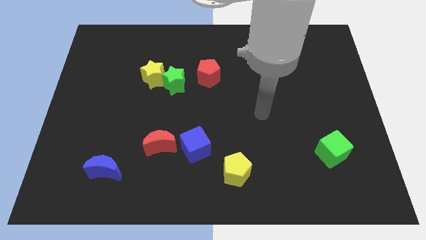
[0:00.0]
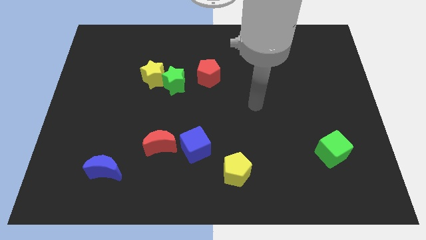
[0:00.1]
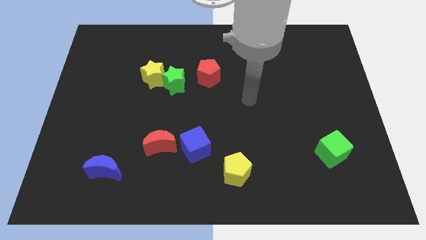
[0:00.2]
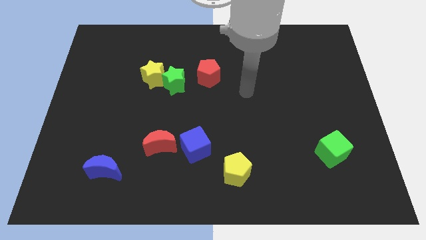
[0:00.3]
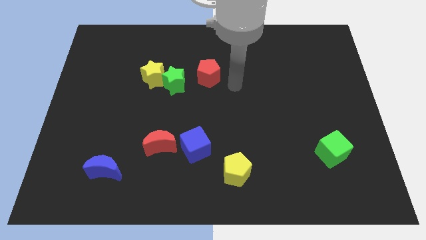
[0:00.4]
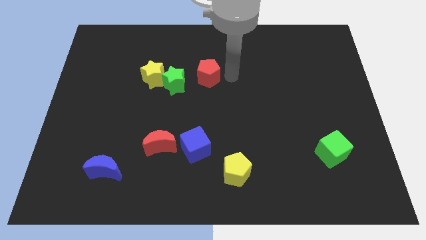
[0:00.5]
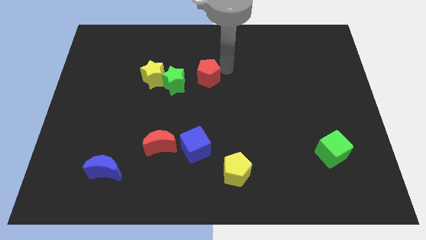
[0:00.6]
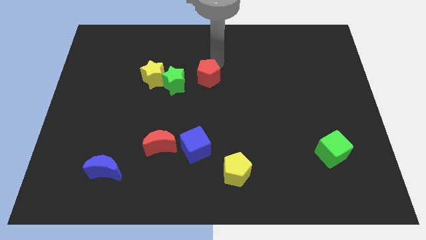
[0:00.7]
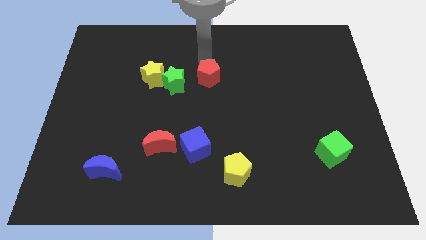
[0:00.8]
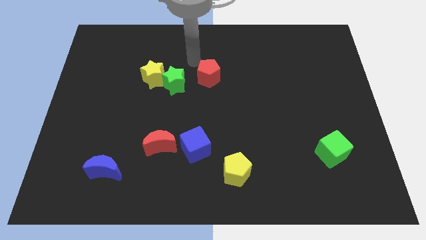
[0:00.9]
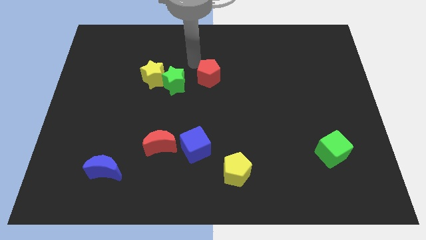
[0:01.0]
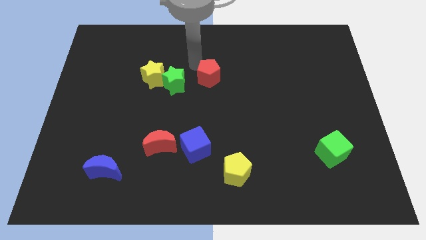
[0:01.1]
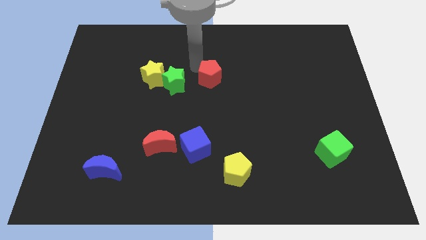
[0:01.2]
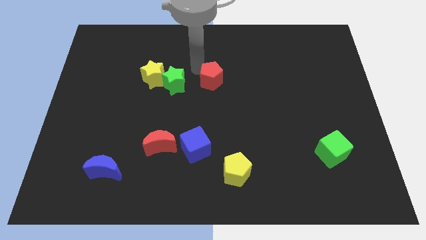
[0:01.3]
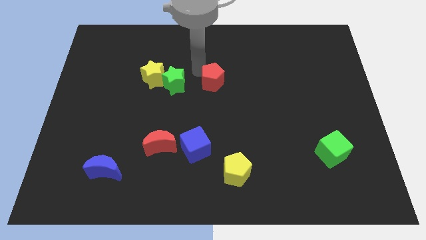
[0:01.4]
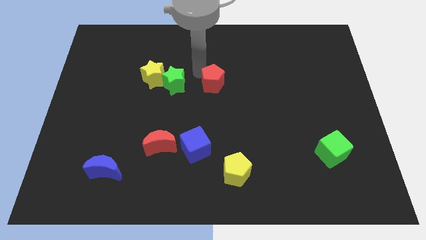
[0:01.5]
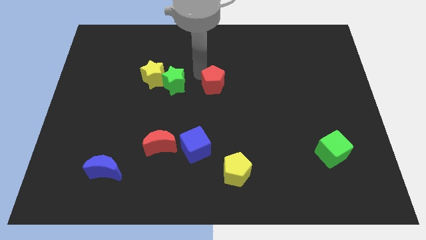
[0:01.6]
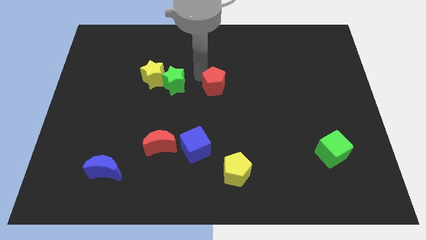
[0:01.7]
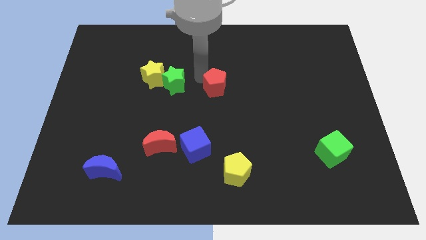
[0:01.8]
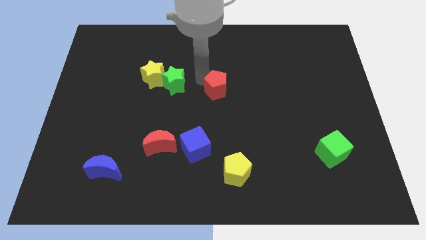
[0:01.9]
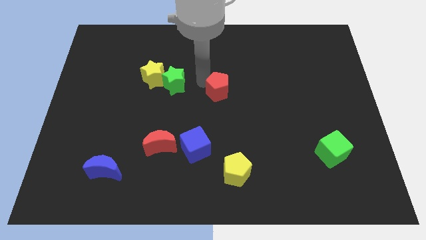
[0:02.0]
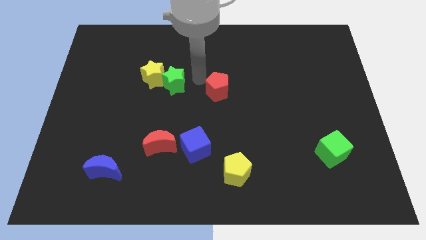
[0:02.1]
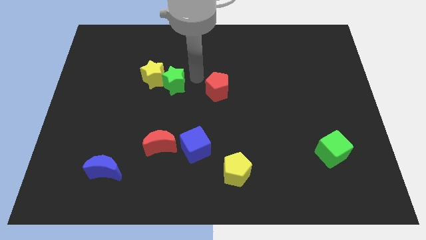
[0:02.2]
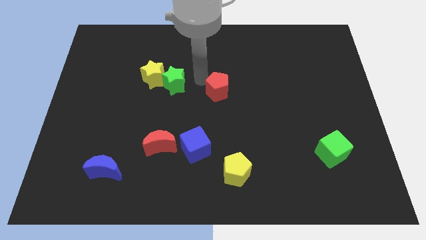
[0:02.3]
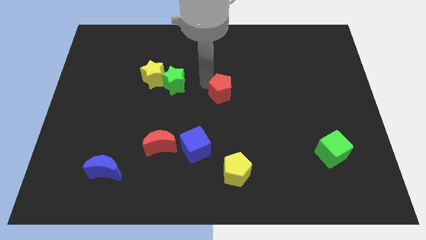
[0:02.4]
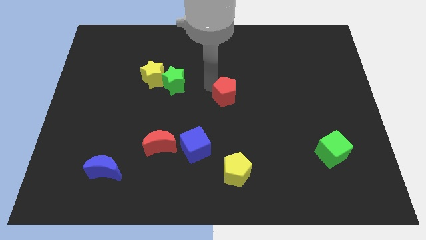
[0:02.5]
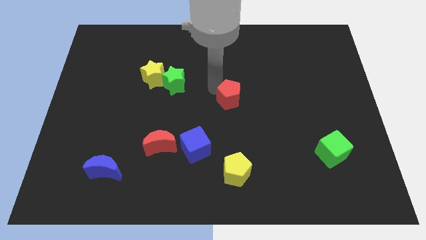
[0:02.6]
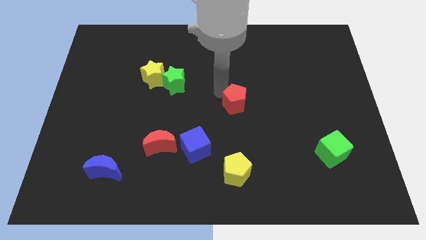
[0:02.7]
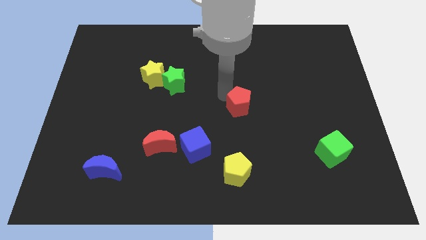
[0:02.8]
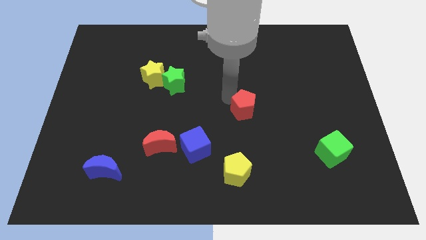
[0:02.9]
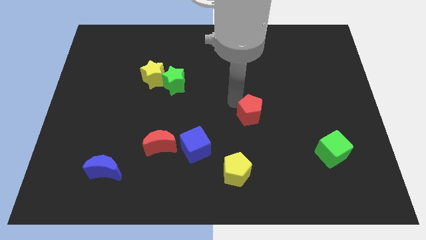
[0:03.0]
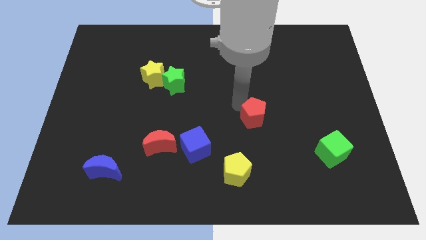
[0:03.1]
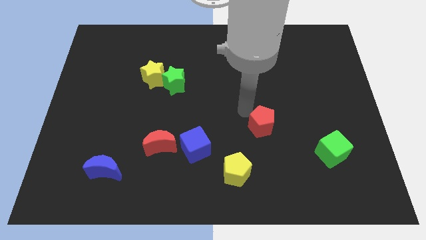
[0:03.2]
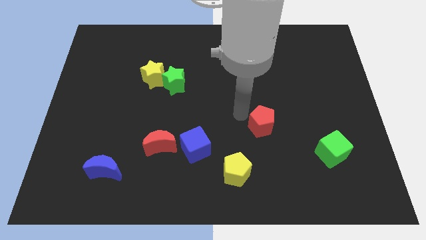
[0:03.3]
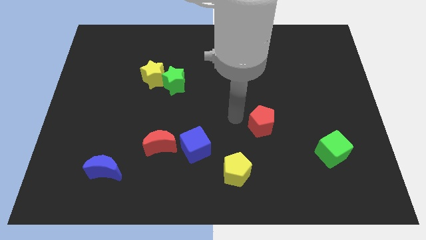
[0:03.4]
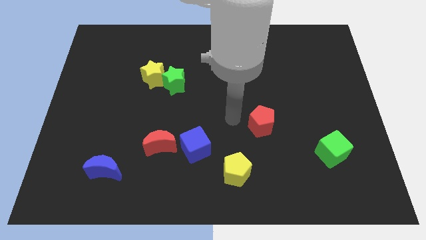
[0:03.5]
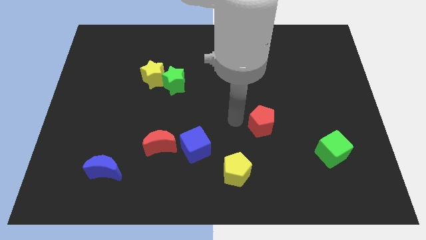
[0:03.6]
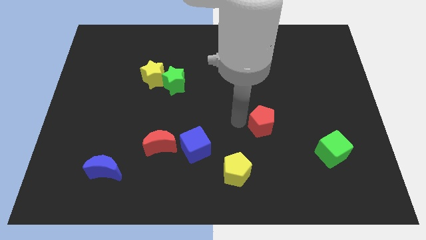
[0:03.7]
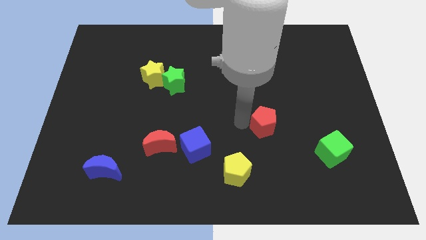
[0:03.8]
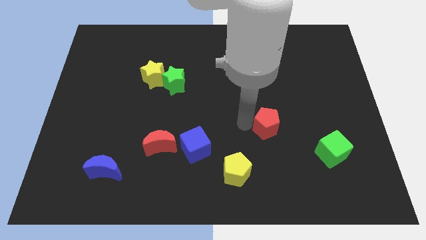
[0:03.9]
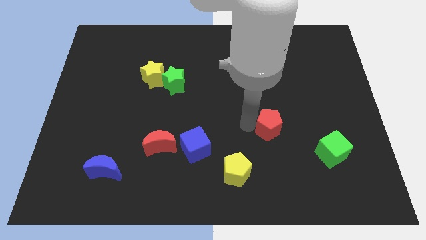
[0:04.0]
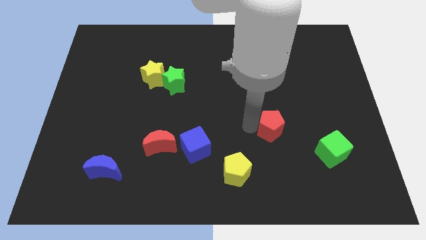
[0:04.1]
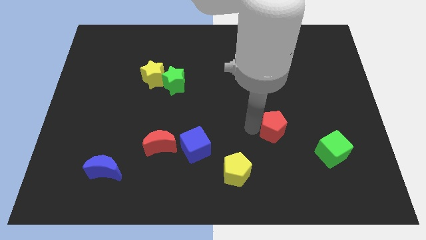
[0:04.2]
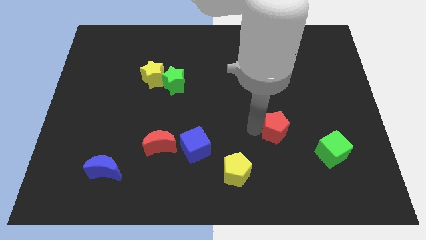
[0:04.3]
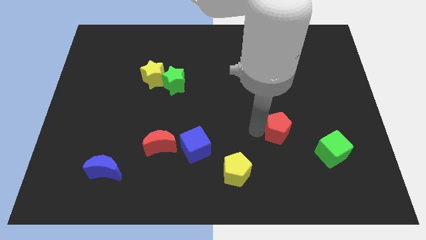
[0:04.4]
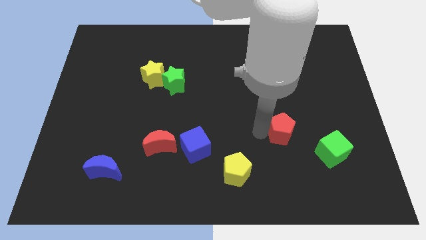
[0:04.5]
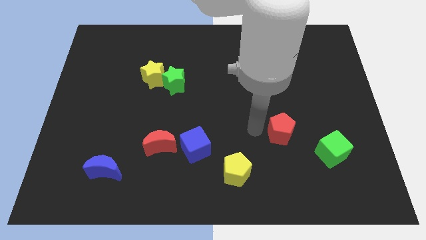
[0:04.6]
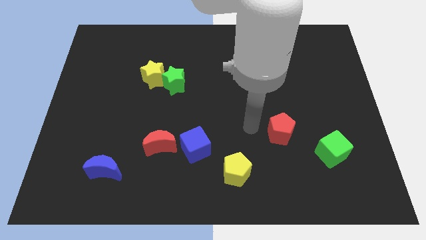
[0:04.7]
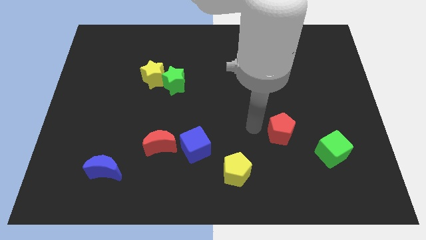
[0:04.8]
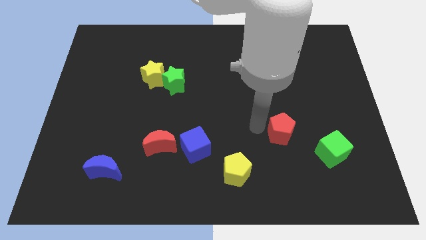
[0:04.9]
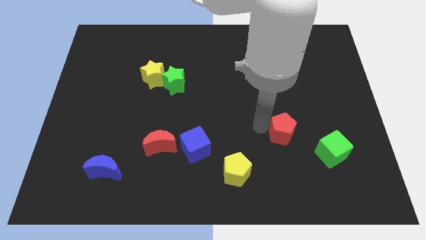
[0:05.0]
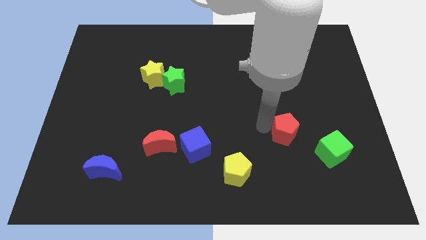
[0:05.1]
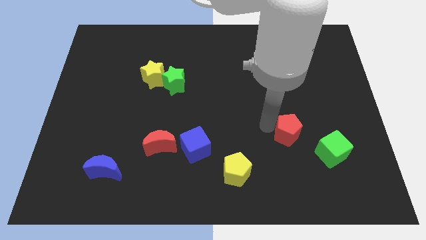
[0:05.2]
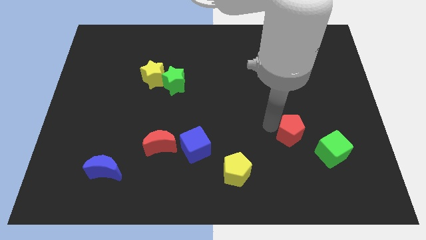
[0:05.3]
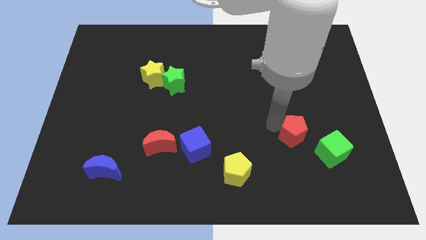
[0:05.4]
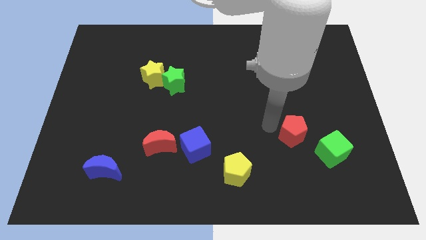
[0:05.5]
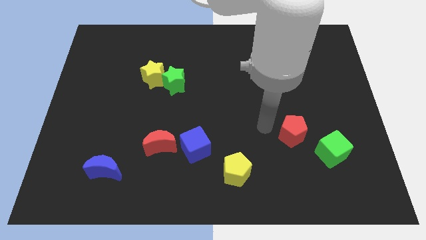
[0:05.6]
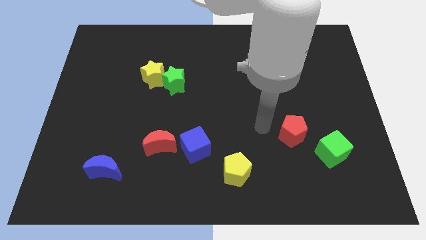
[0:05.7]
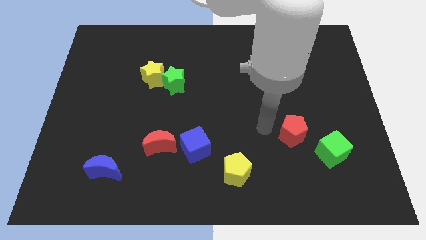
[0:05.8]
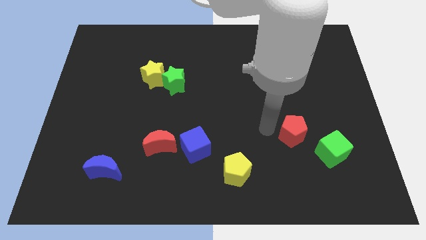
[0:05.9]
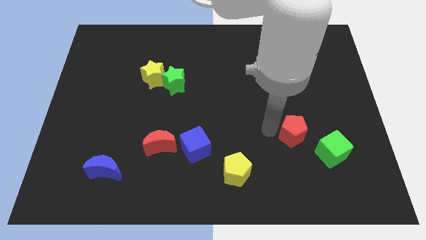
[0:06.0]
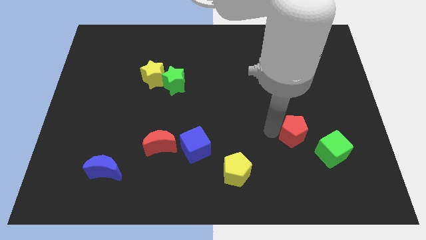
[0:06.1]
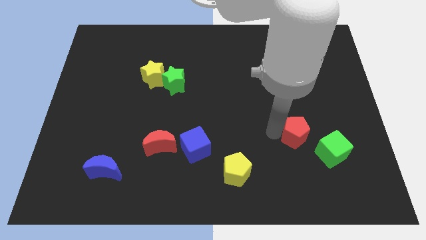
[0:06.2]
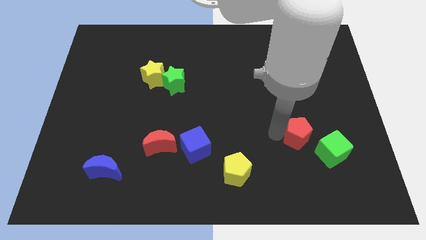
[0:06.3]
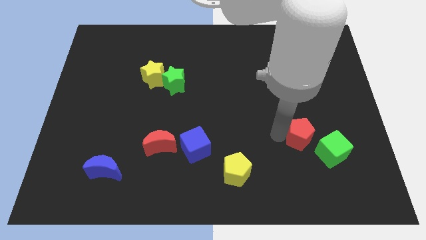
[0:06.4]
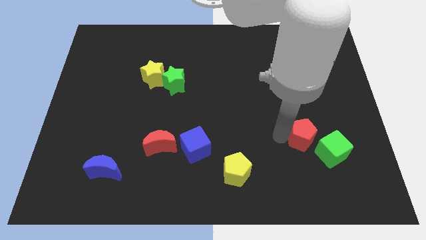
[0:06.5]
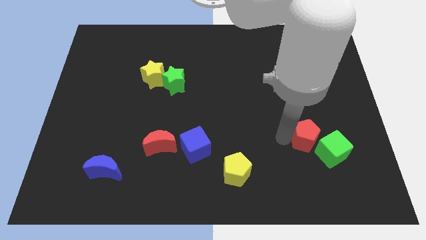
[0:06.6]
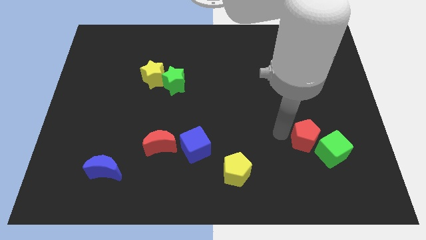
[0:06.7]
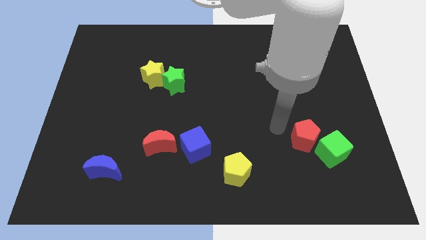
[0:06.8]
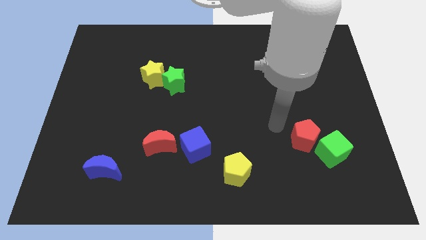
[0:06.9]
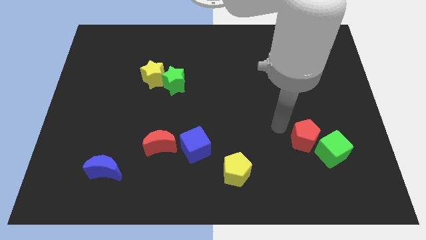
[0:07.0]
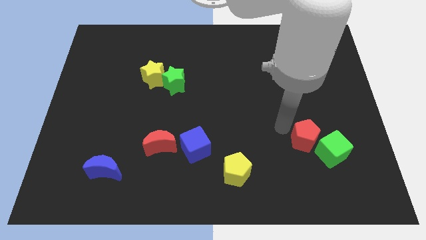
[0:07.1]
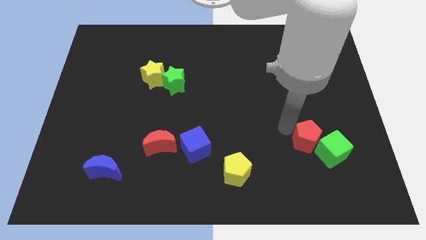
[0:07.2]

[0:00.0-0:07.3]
move the red pentagon close to the green cube
